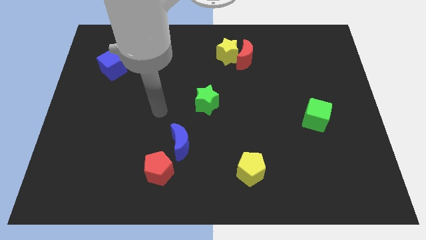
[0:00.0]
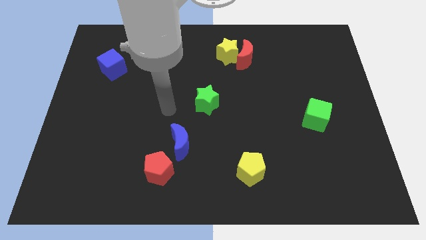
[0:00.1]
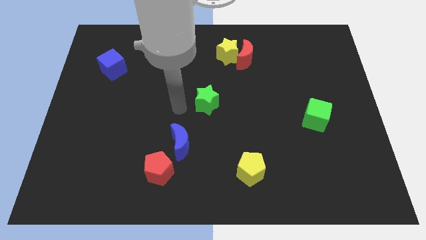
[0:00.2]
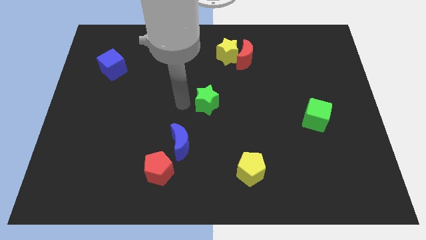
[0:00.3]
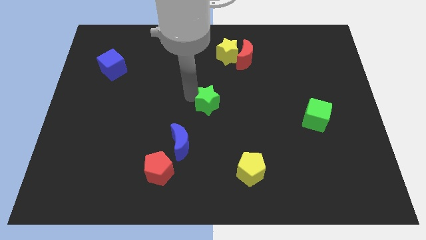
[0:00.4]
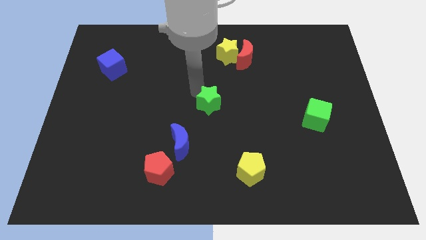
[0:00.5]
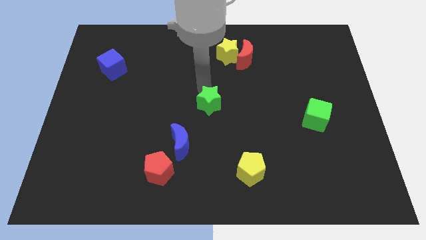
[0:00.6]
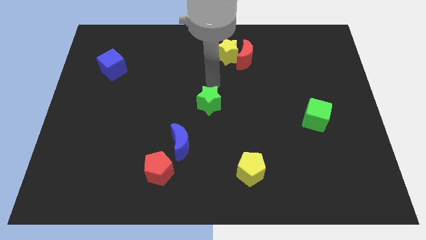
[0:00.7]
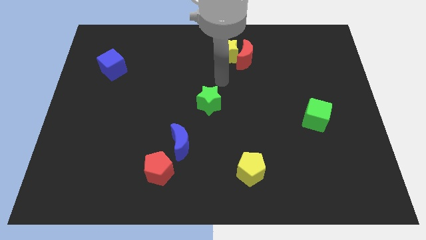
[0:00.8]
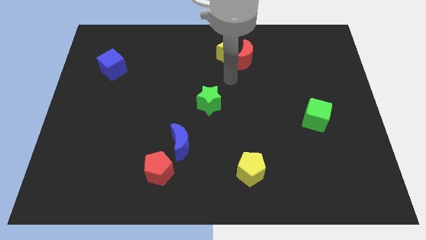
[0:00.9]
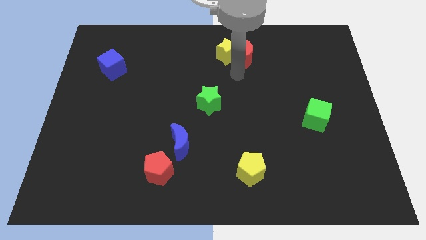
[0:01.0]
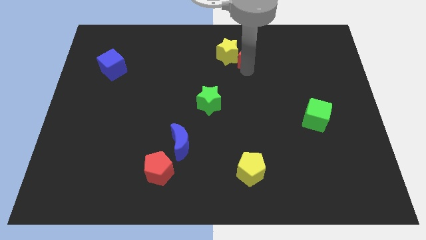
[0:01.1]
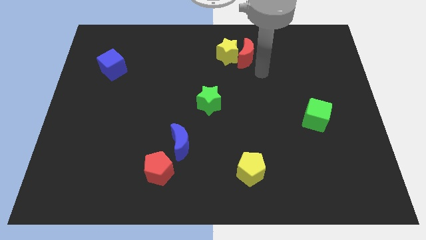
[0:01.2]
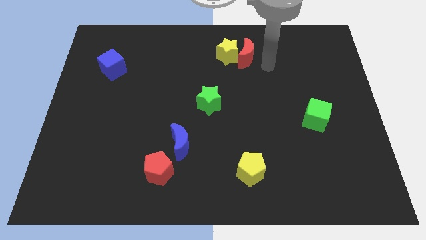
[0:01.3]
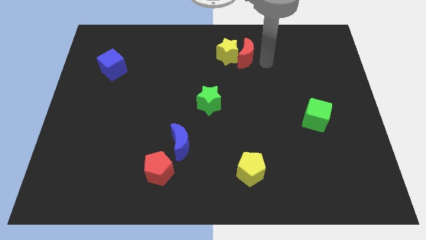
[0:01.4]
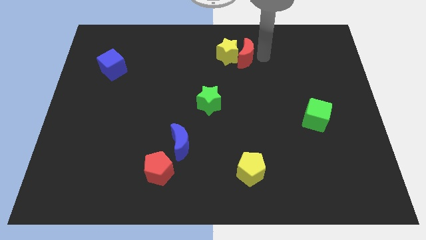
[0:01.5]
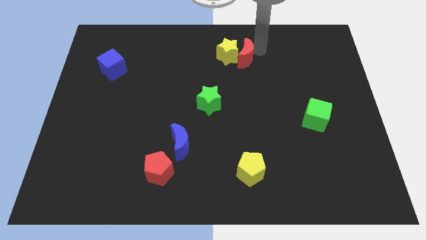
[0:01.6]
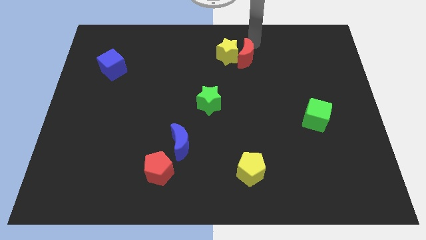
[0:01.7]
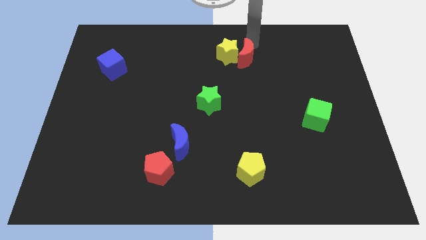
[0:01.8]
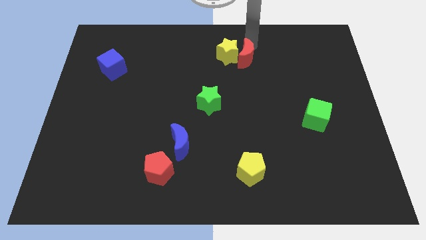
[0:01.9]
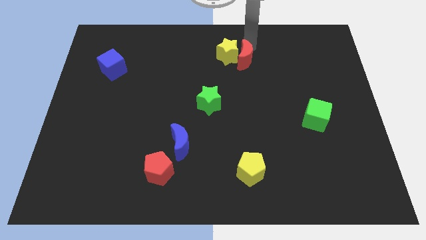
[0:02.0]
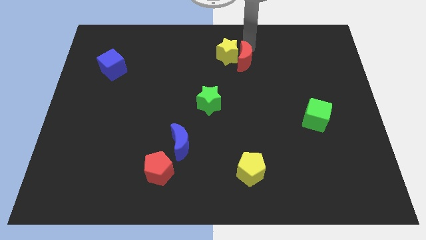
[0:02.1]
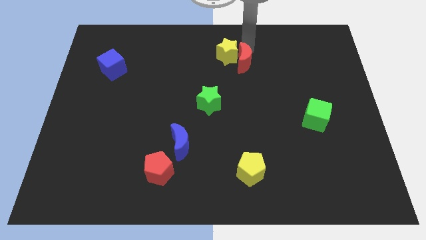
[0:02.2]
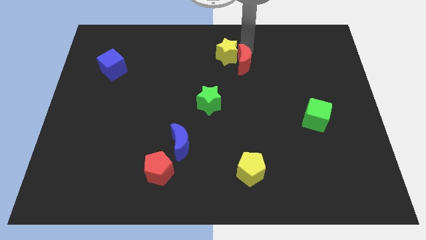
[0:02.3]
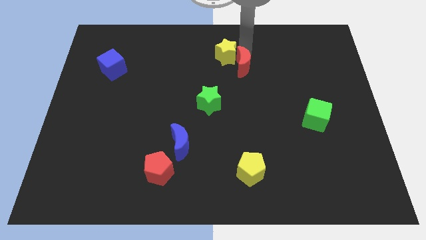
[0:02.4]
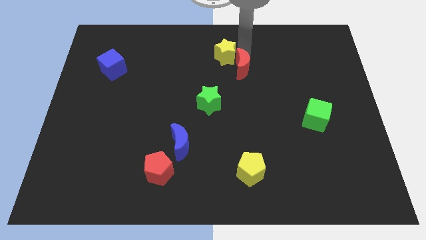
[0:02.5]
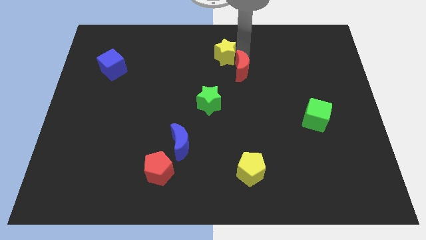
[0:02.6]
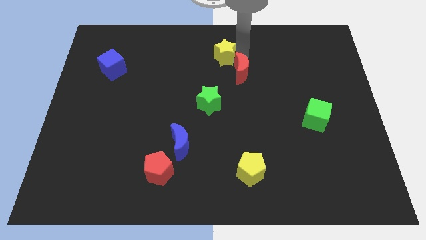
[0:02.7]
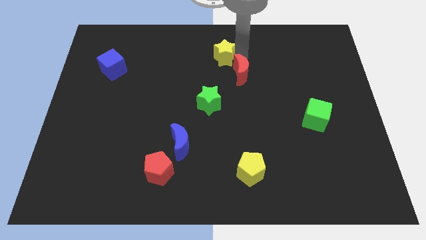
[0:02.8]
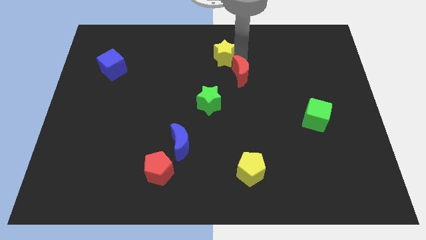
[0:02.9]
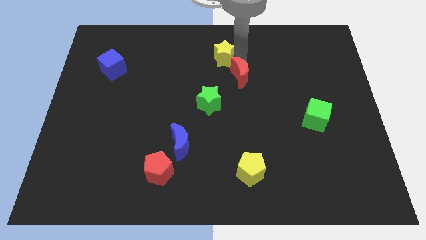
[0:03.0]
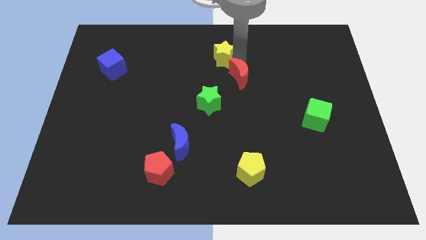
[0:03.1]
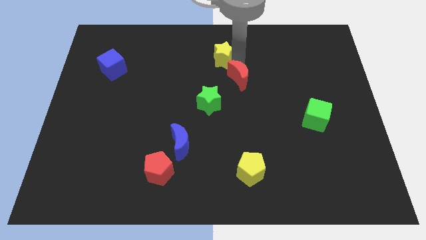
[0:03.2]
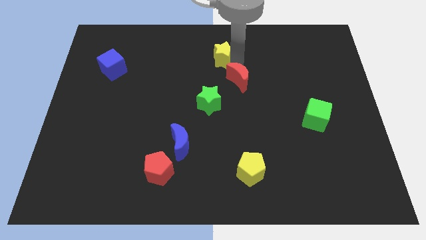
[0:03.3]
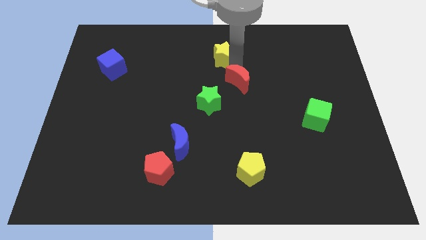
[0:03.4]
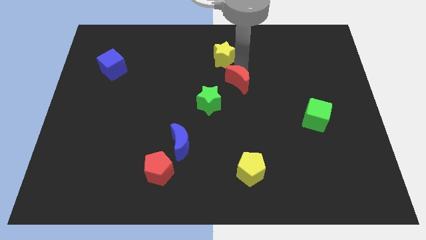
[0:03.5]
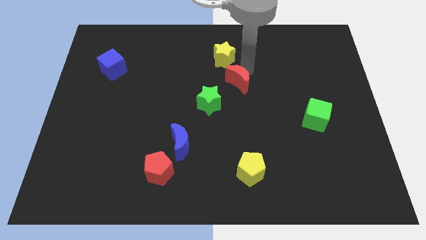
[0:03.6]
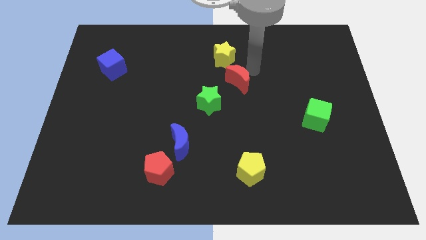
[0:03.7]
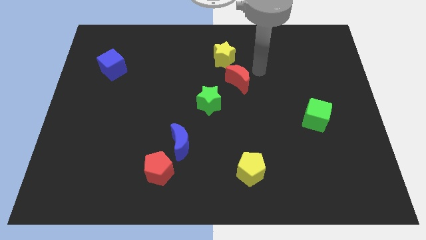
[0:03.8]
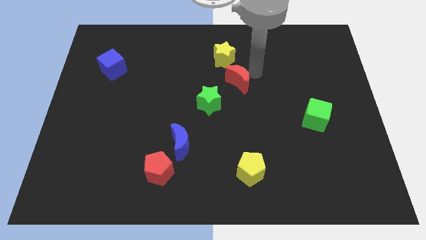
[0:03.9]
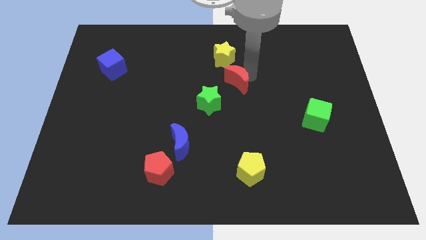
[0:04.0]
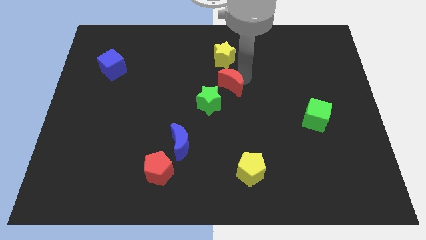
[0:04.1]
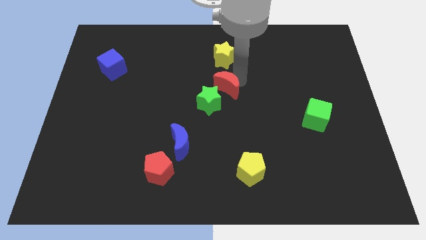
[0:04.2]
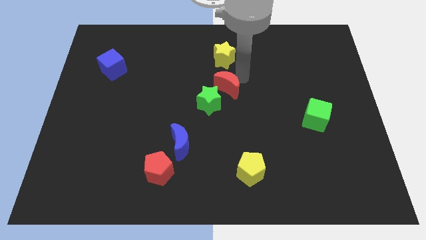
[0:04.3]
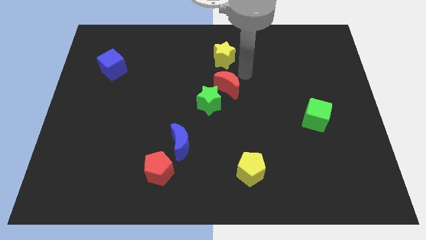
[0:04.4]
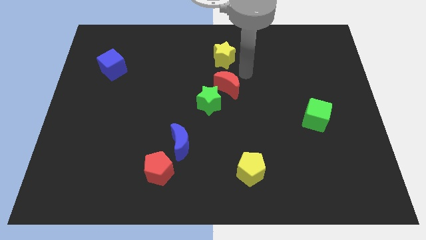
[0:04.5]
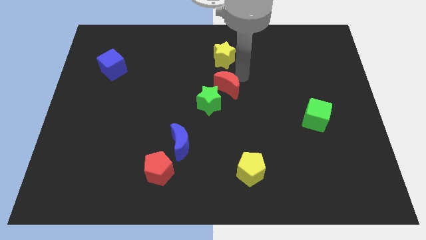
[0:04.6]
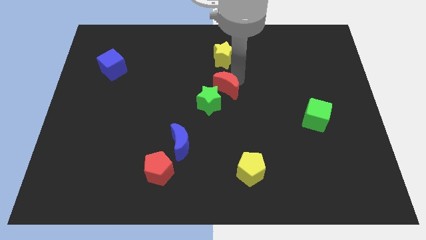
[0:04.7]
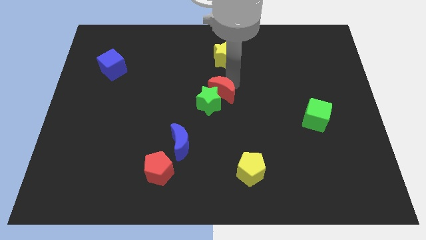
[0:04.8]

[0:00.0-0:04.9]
move the red moon towards the green star

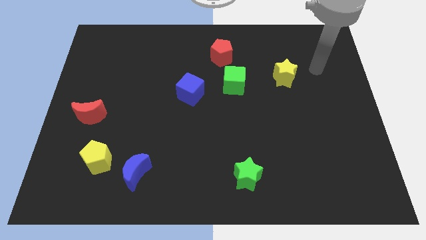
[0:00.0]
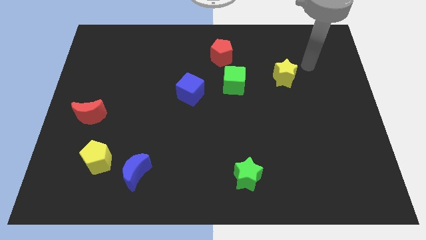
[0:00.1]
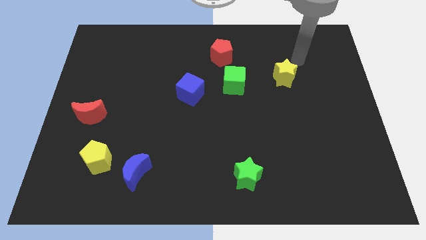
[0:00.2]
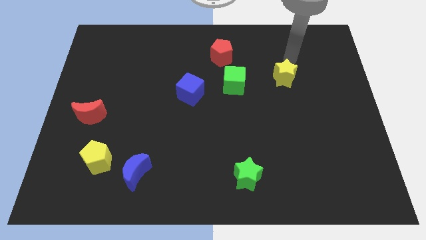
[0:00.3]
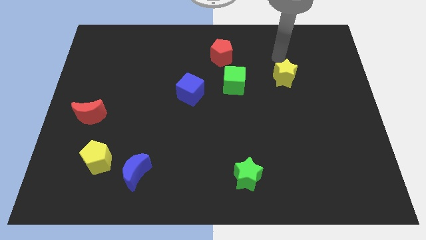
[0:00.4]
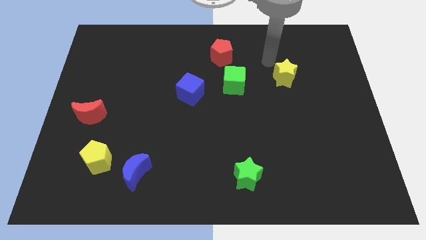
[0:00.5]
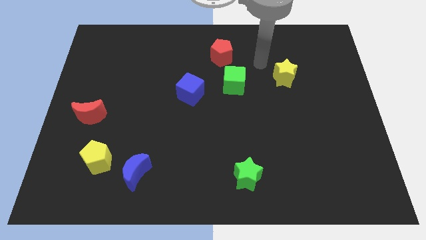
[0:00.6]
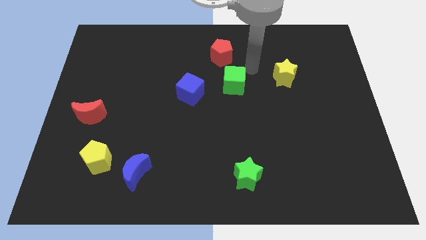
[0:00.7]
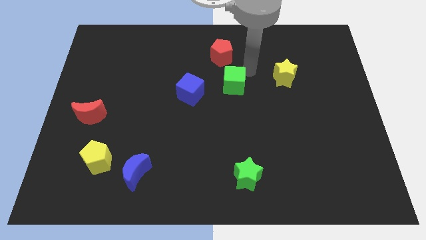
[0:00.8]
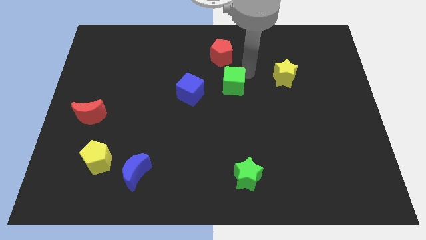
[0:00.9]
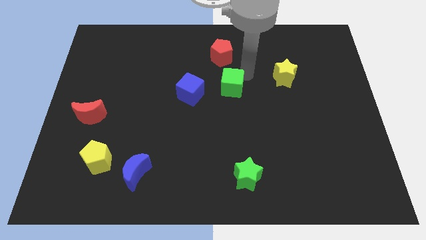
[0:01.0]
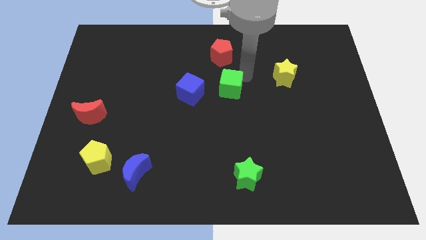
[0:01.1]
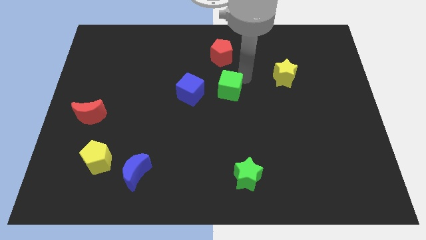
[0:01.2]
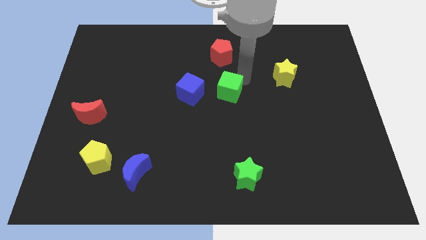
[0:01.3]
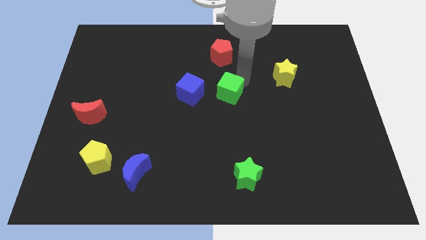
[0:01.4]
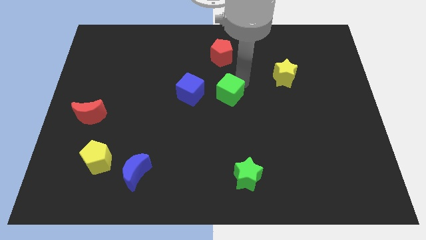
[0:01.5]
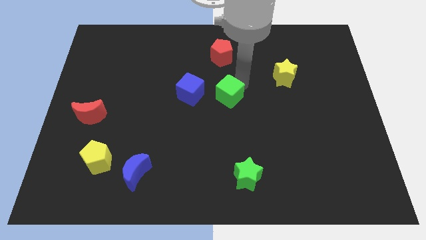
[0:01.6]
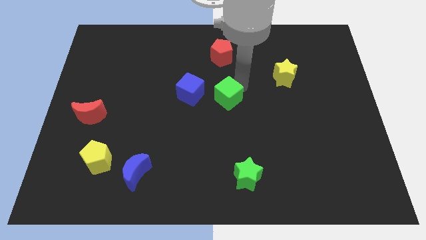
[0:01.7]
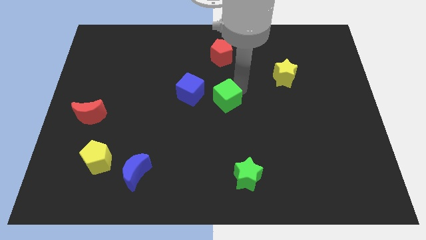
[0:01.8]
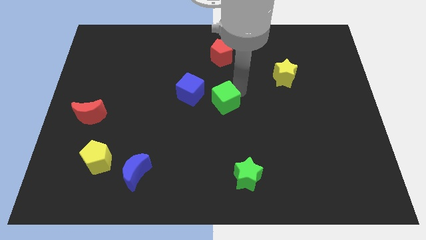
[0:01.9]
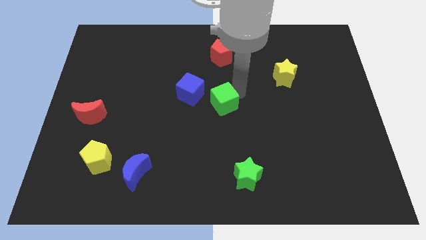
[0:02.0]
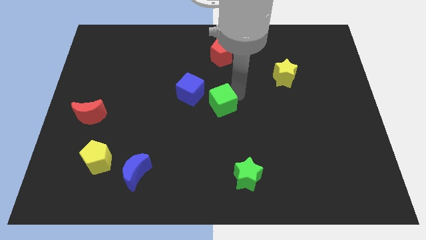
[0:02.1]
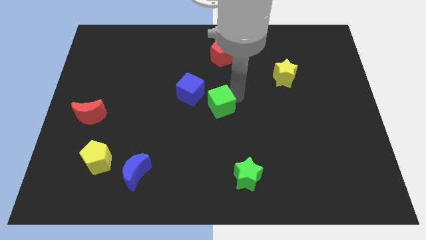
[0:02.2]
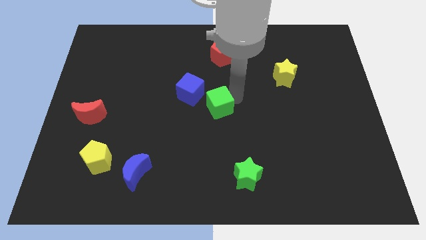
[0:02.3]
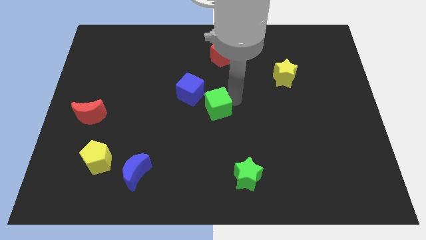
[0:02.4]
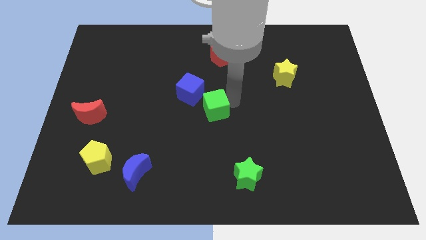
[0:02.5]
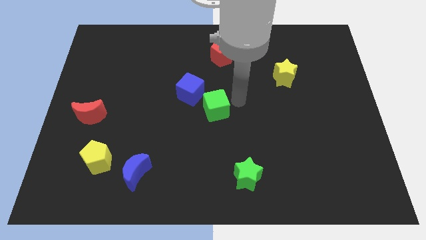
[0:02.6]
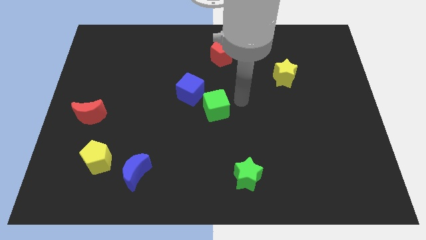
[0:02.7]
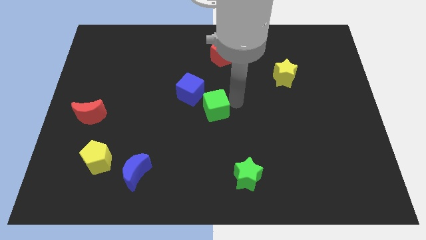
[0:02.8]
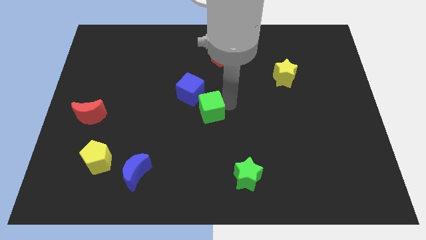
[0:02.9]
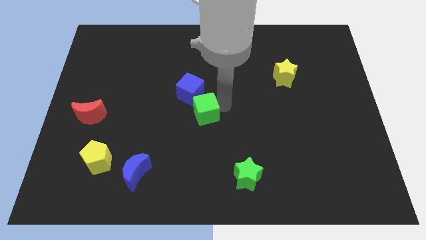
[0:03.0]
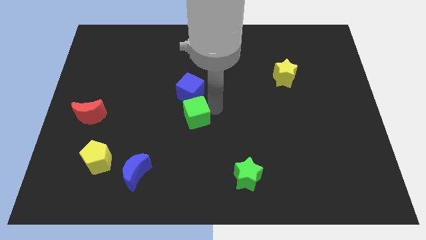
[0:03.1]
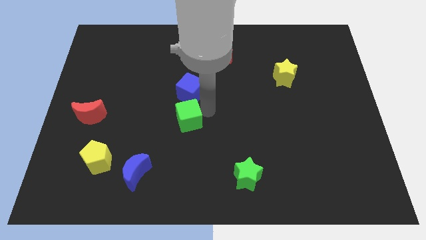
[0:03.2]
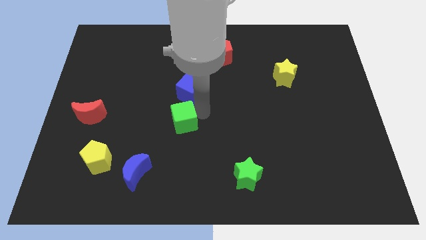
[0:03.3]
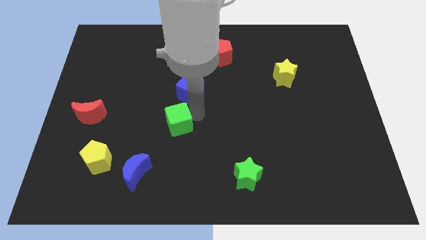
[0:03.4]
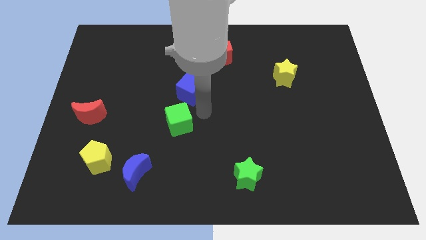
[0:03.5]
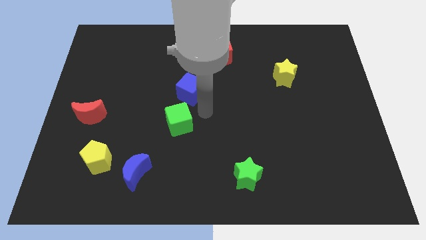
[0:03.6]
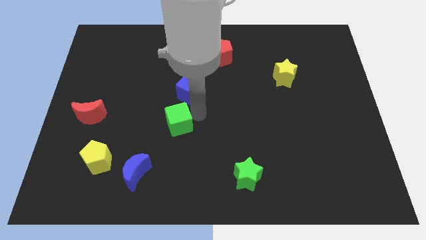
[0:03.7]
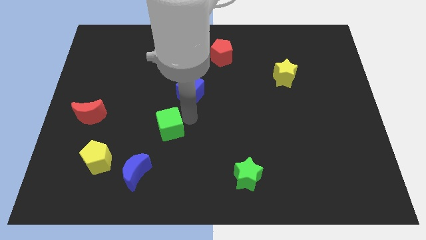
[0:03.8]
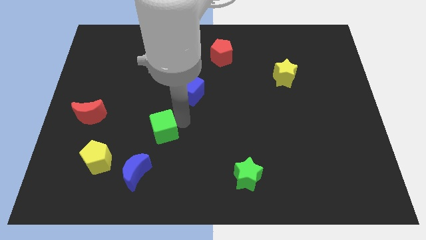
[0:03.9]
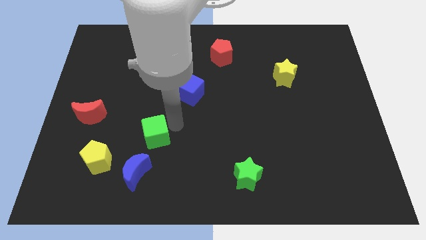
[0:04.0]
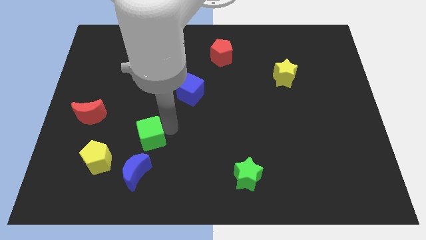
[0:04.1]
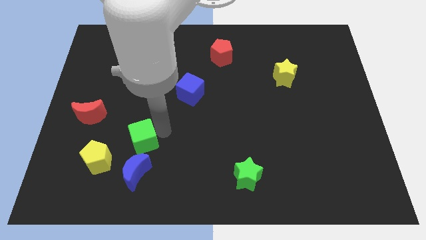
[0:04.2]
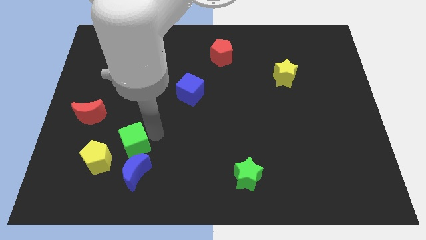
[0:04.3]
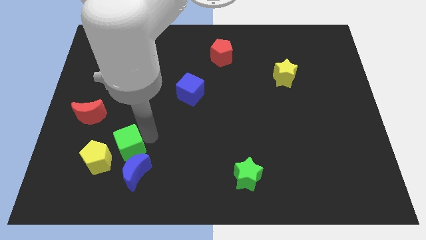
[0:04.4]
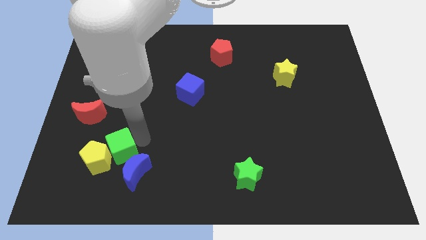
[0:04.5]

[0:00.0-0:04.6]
put the green cube to the yellow pentagon
